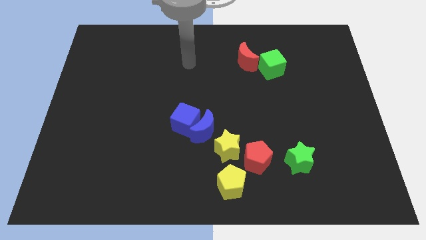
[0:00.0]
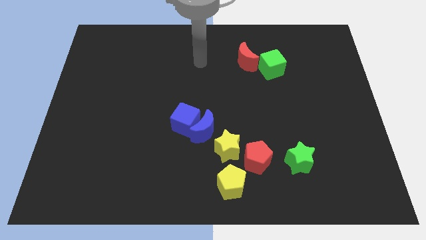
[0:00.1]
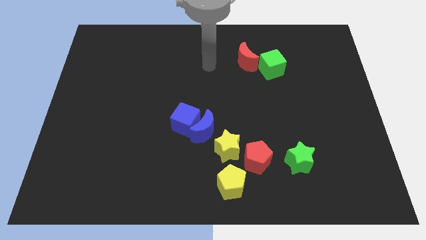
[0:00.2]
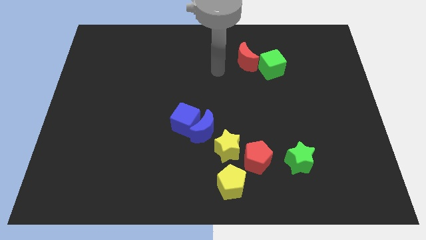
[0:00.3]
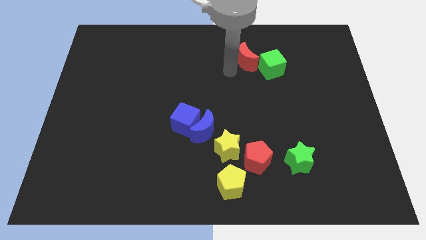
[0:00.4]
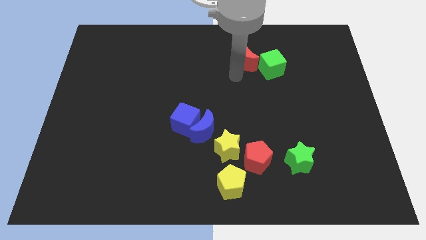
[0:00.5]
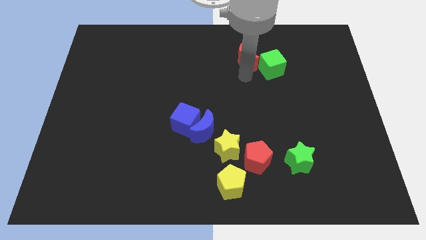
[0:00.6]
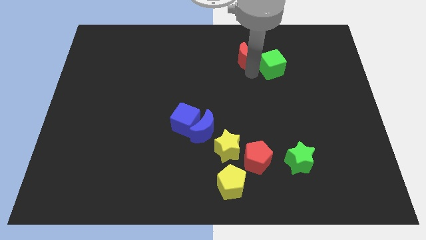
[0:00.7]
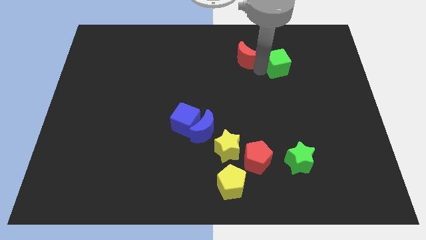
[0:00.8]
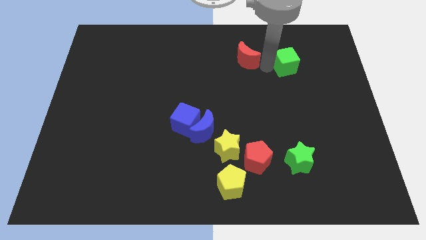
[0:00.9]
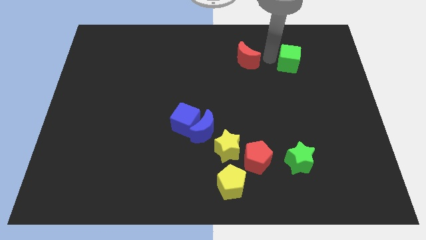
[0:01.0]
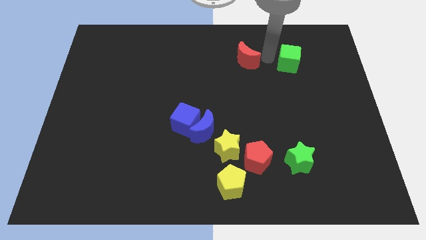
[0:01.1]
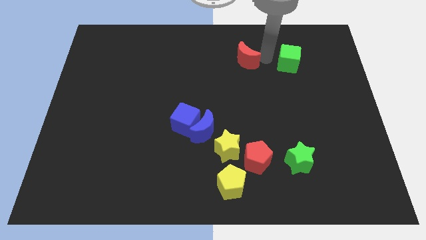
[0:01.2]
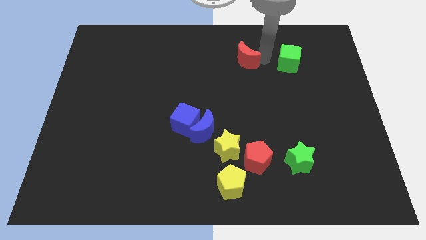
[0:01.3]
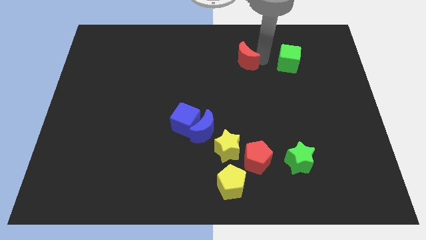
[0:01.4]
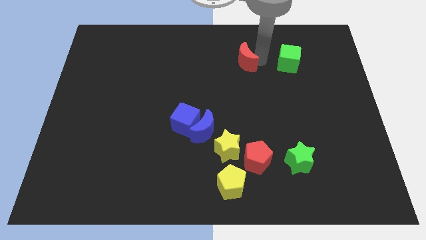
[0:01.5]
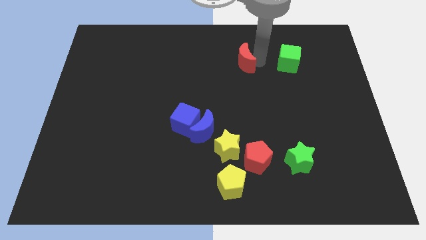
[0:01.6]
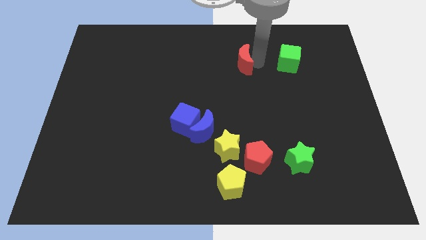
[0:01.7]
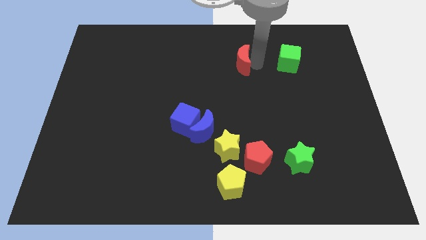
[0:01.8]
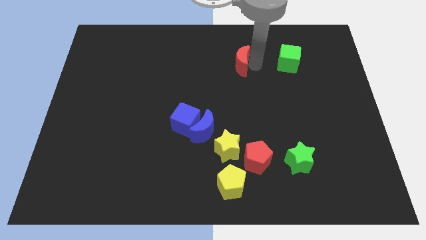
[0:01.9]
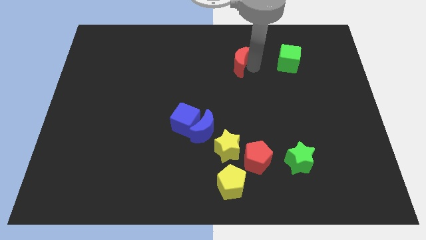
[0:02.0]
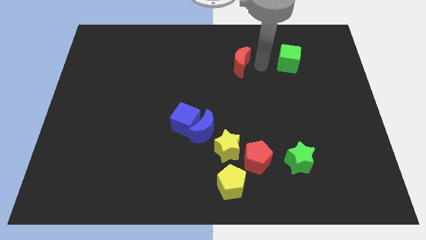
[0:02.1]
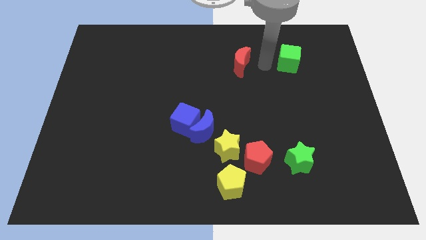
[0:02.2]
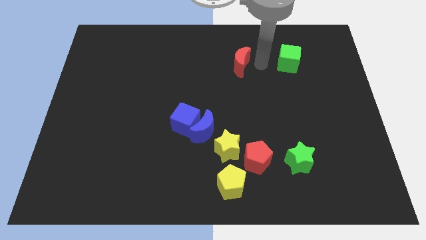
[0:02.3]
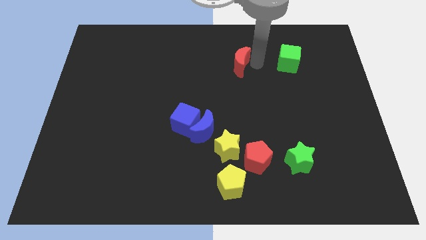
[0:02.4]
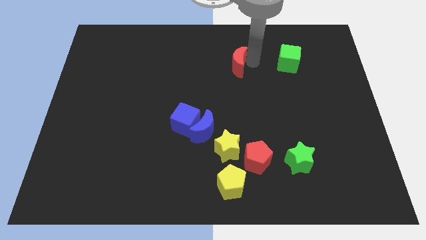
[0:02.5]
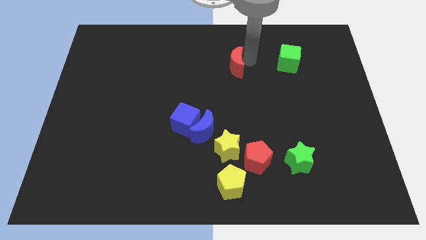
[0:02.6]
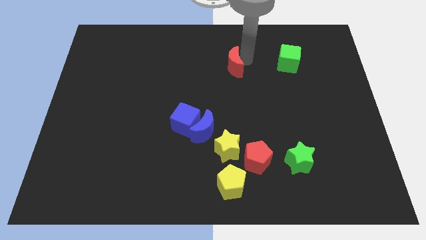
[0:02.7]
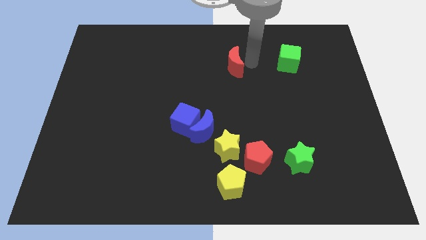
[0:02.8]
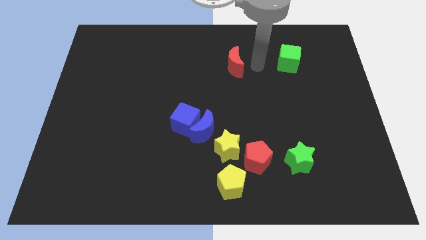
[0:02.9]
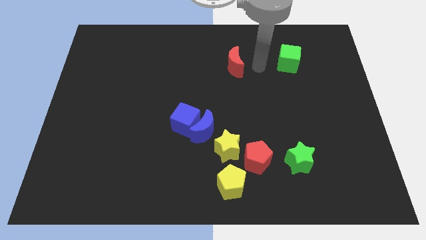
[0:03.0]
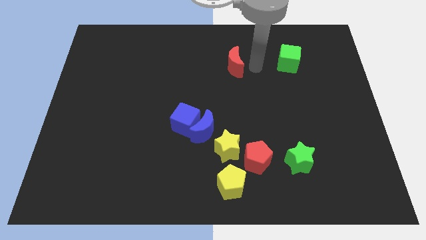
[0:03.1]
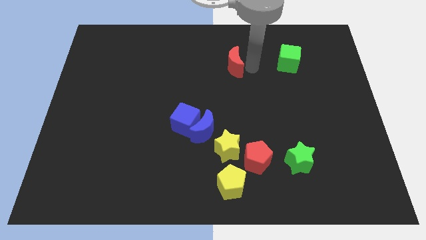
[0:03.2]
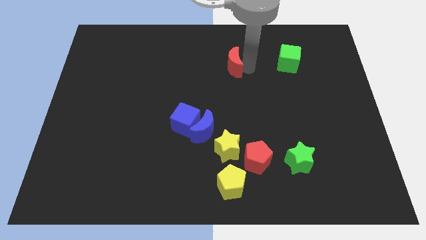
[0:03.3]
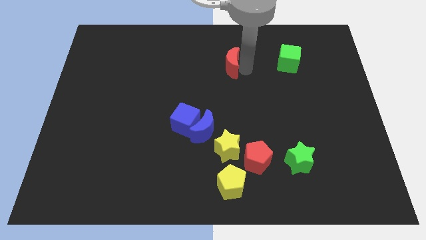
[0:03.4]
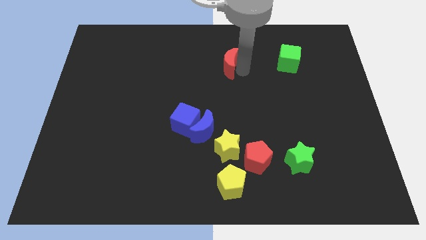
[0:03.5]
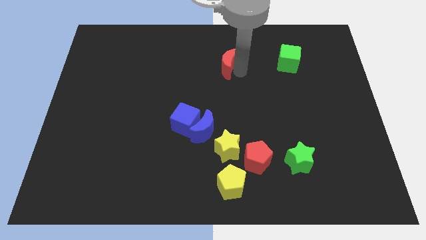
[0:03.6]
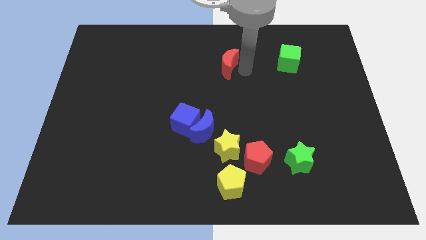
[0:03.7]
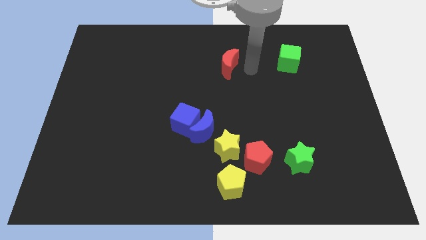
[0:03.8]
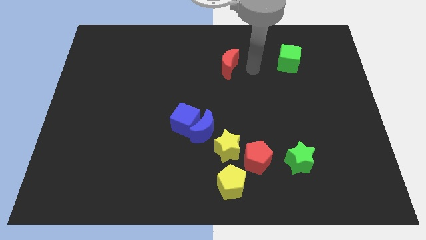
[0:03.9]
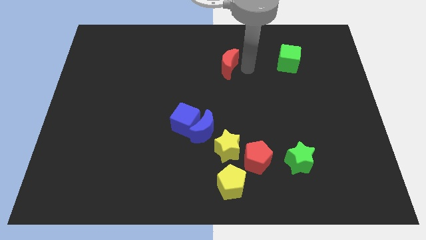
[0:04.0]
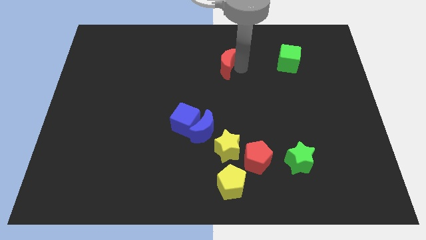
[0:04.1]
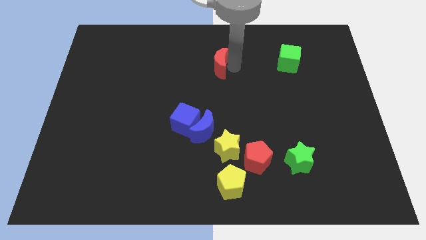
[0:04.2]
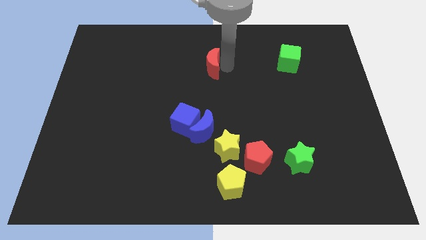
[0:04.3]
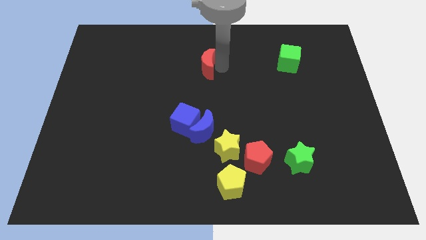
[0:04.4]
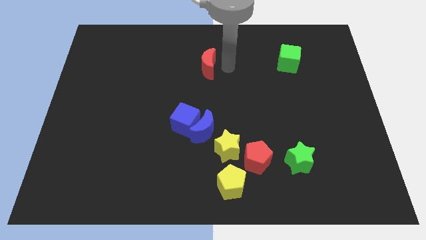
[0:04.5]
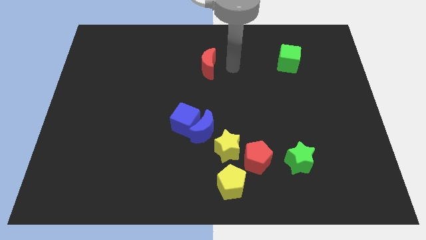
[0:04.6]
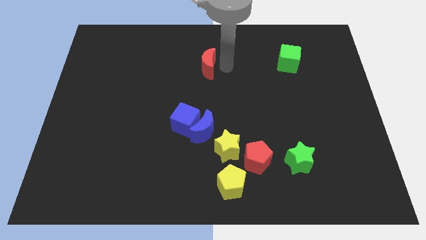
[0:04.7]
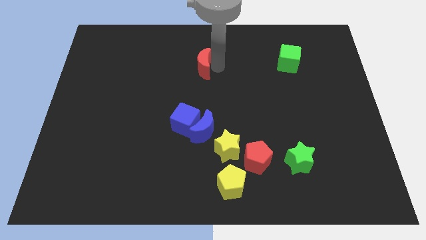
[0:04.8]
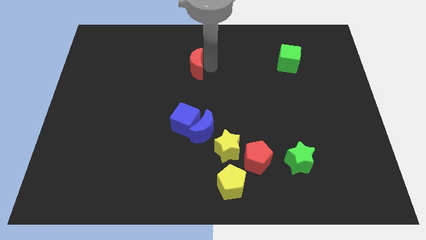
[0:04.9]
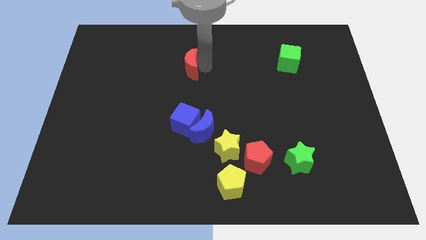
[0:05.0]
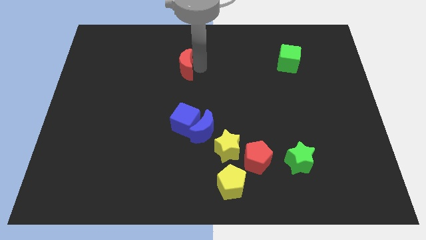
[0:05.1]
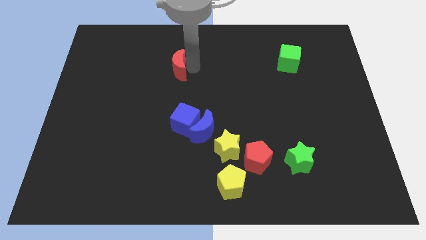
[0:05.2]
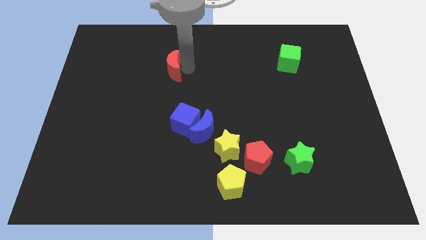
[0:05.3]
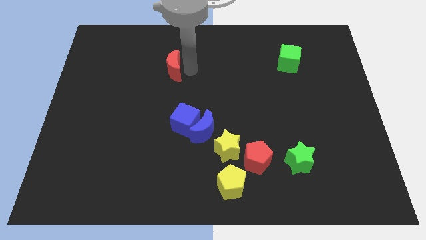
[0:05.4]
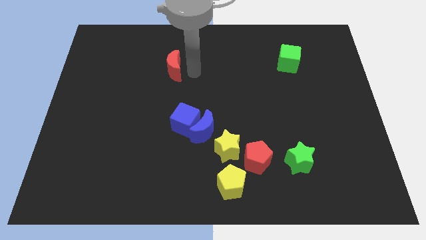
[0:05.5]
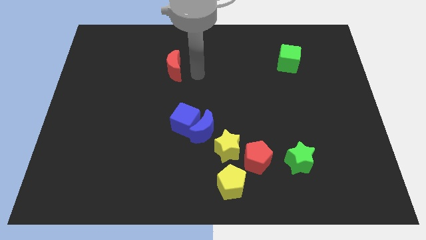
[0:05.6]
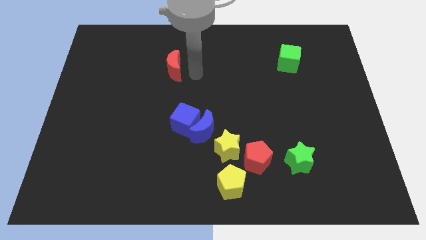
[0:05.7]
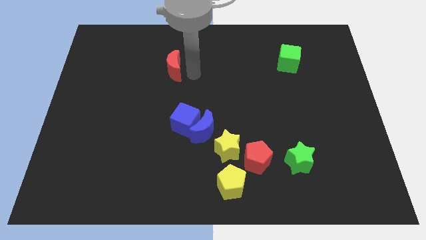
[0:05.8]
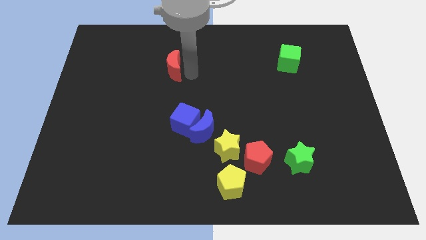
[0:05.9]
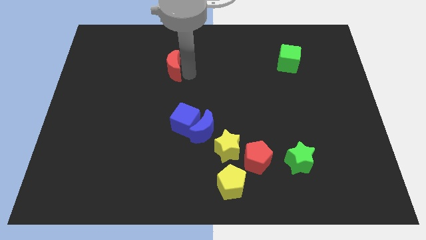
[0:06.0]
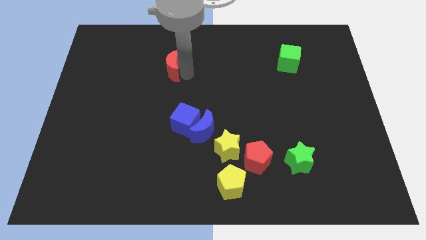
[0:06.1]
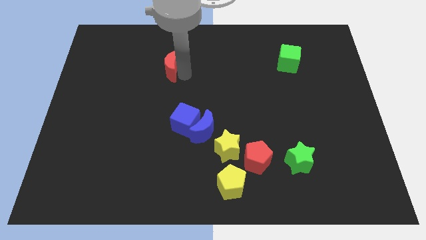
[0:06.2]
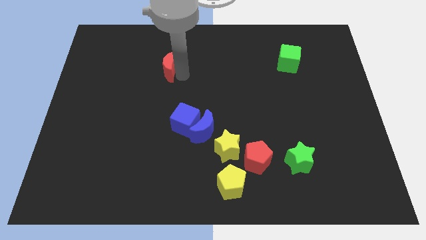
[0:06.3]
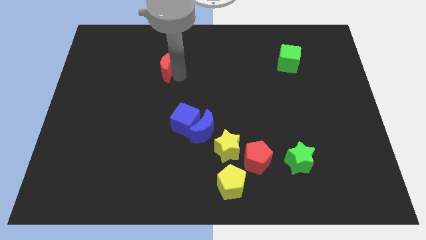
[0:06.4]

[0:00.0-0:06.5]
slide the red moon to the left

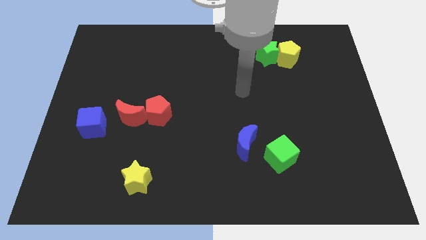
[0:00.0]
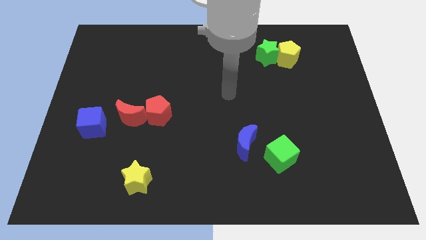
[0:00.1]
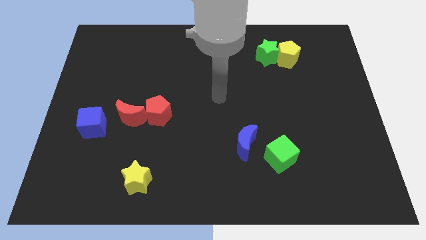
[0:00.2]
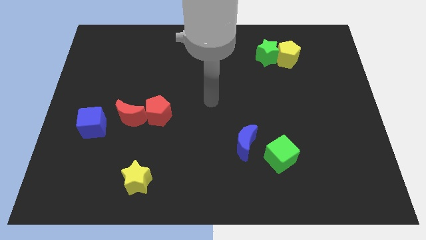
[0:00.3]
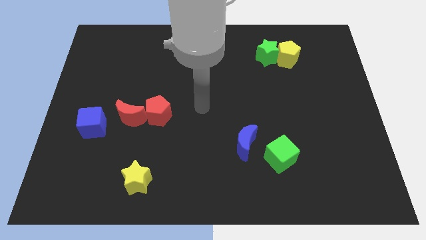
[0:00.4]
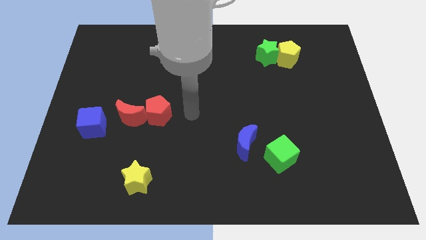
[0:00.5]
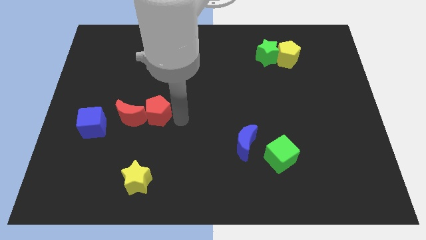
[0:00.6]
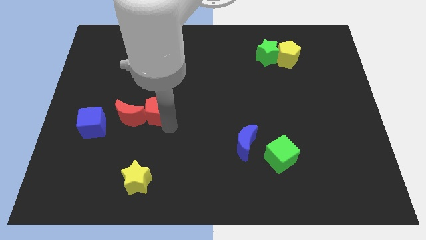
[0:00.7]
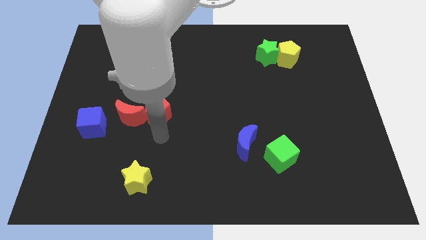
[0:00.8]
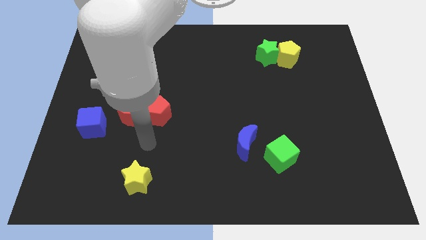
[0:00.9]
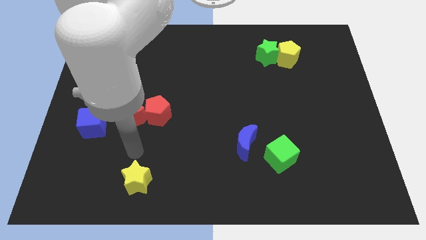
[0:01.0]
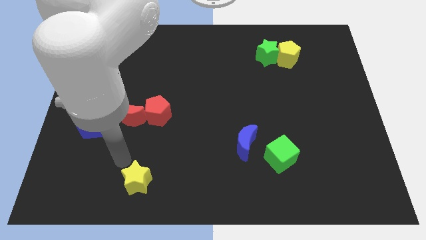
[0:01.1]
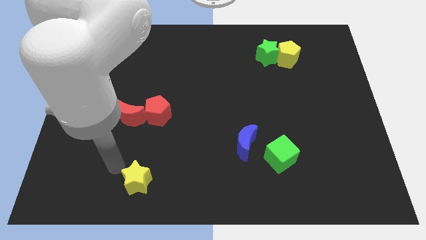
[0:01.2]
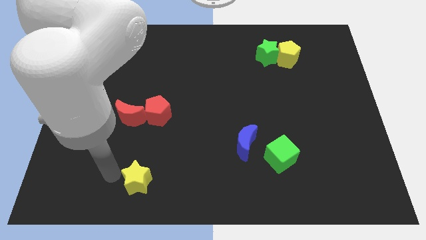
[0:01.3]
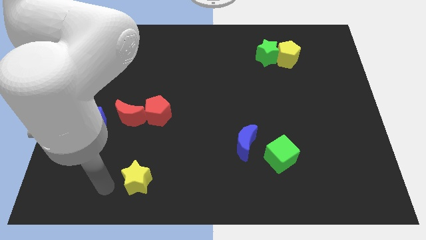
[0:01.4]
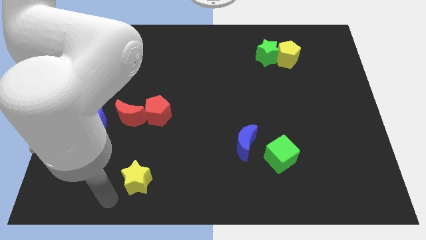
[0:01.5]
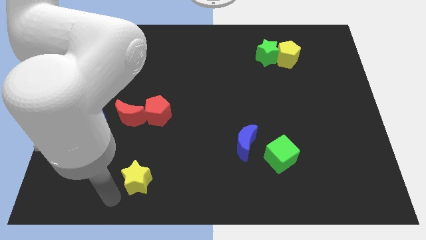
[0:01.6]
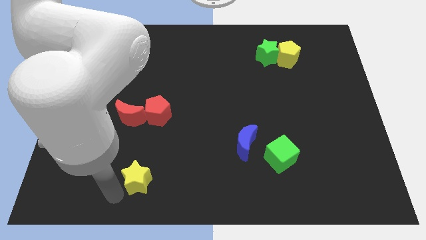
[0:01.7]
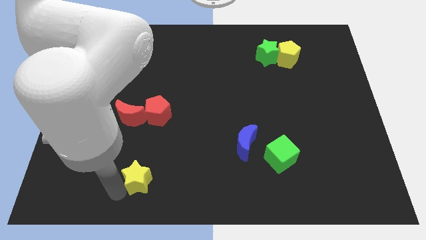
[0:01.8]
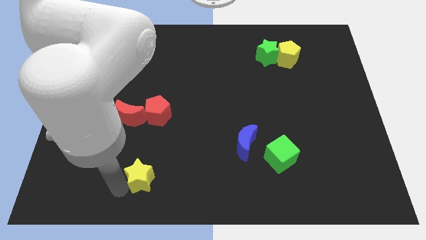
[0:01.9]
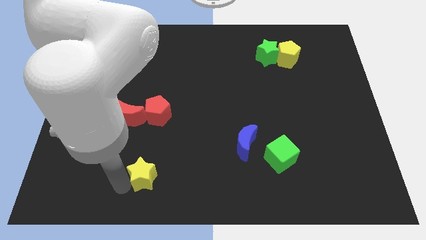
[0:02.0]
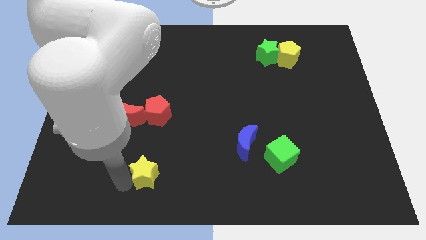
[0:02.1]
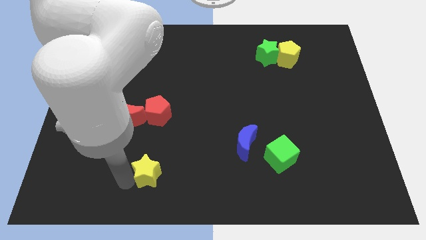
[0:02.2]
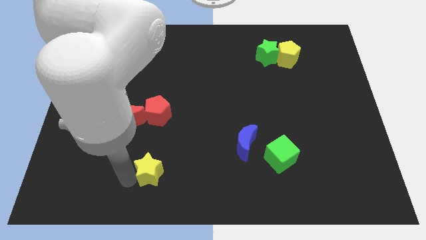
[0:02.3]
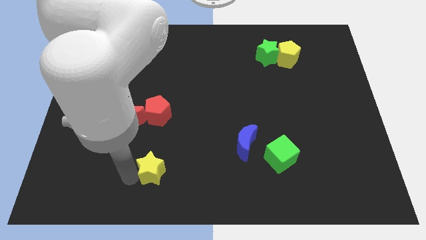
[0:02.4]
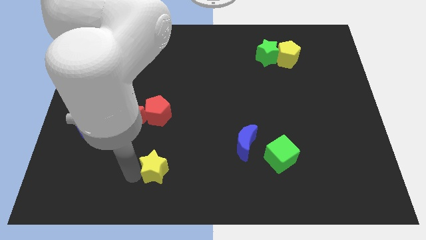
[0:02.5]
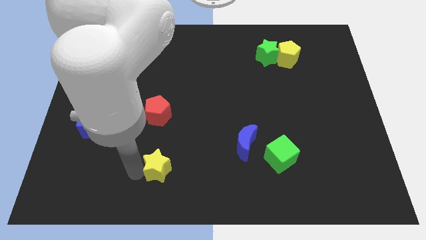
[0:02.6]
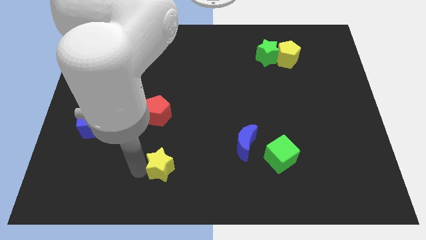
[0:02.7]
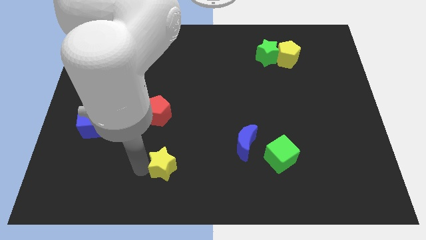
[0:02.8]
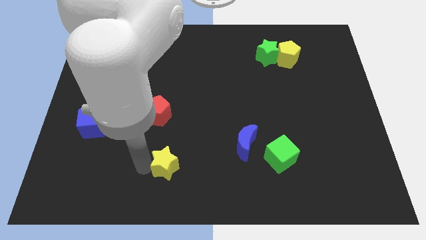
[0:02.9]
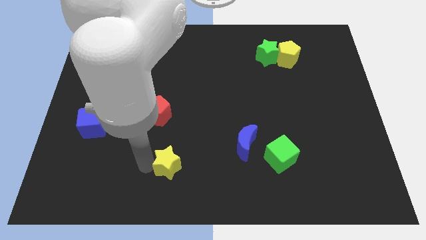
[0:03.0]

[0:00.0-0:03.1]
slightly move the yellow star up and right diagonally
